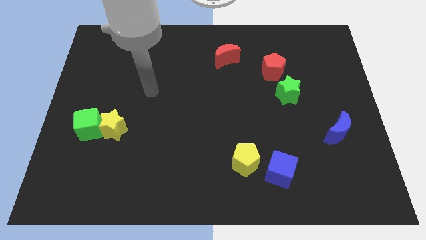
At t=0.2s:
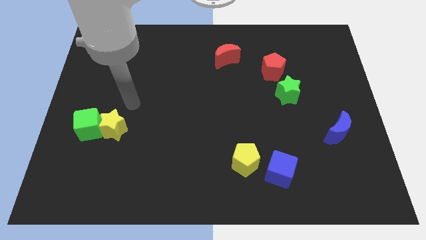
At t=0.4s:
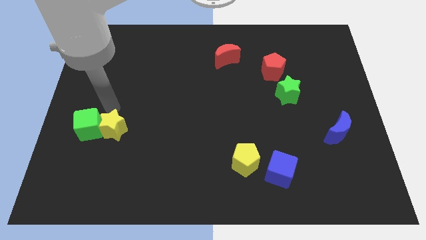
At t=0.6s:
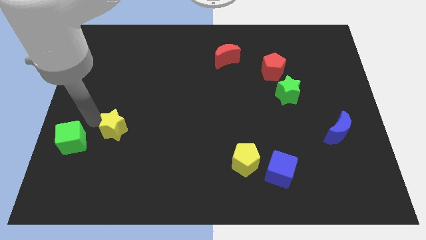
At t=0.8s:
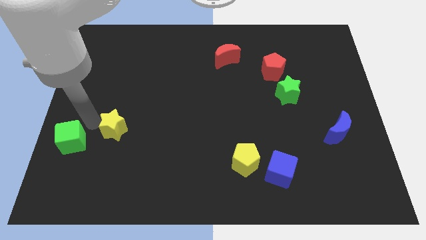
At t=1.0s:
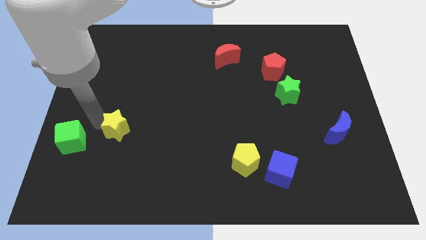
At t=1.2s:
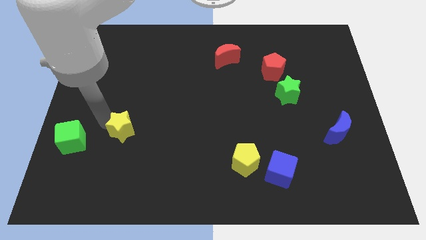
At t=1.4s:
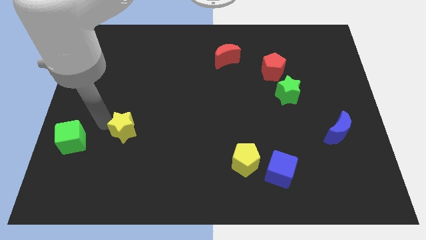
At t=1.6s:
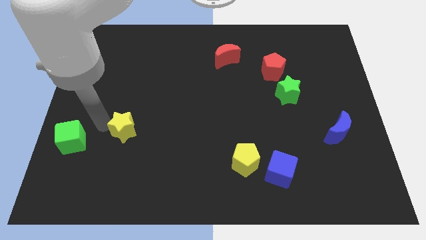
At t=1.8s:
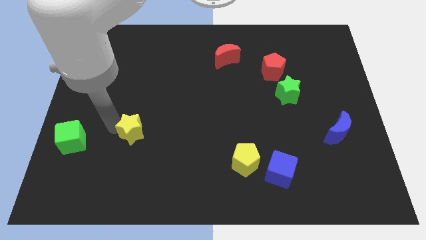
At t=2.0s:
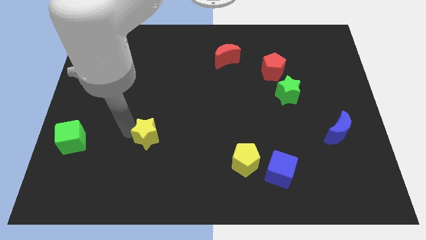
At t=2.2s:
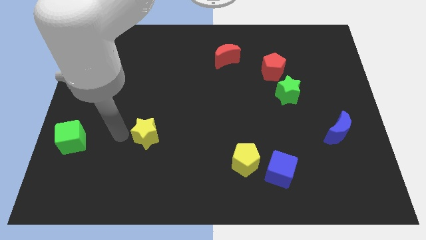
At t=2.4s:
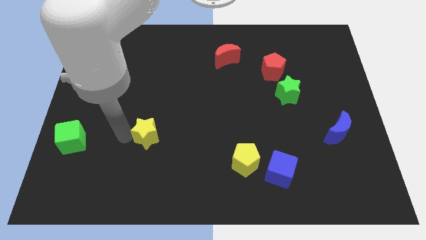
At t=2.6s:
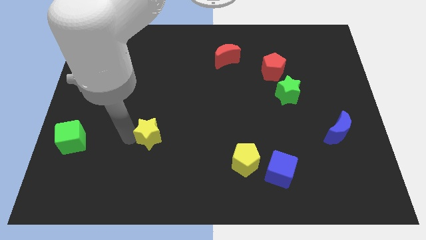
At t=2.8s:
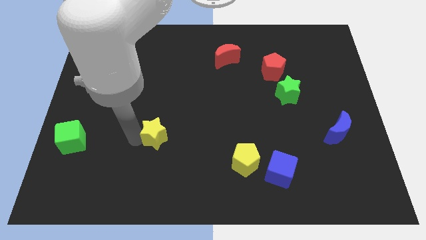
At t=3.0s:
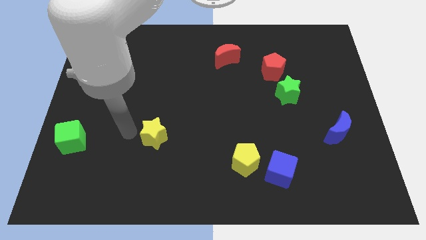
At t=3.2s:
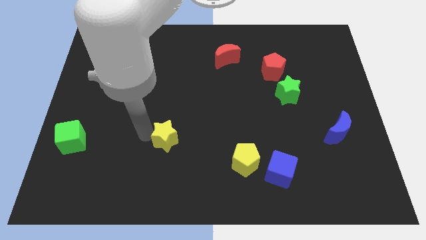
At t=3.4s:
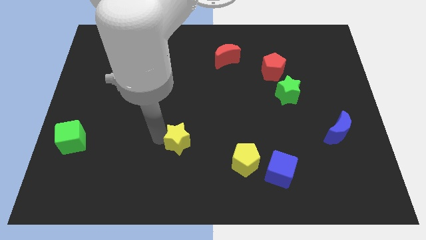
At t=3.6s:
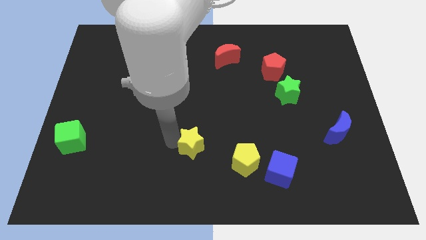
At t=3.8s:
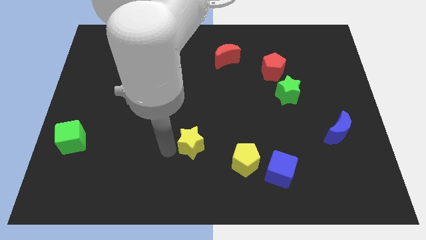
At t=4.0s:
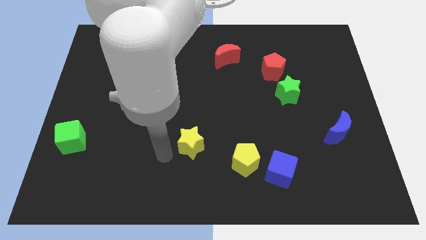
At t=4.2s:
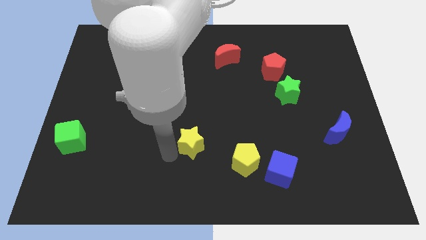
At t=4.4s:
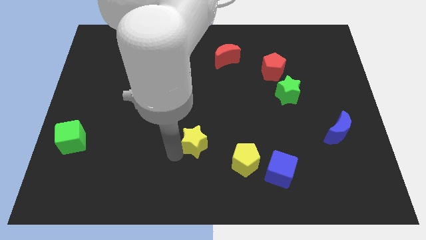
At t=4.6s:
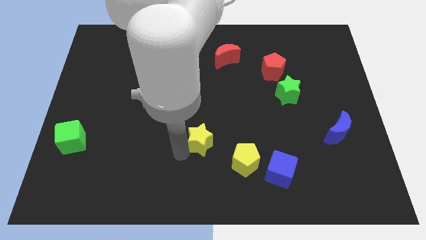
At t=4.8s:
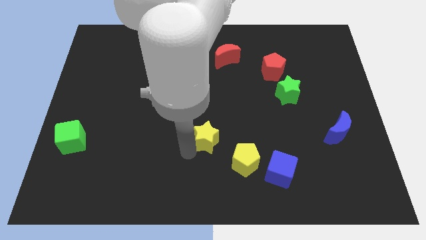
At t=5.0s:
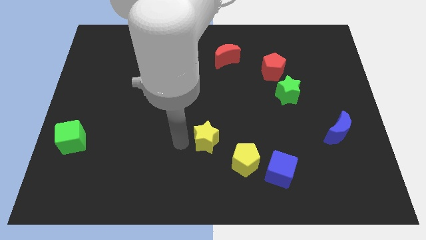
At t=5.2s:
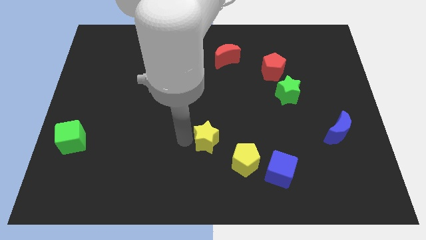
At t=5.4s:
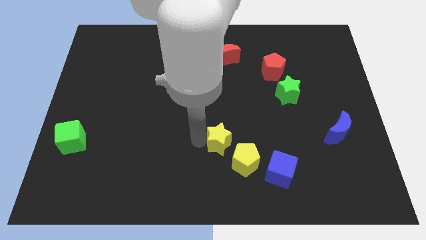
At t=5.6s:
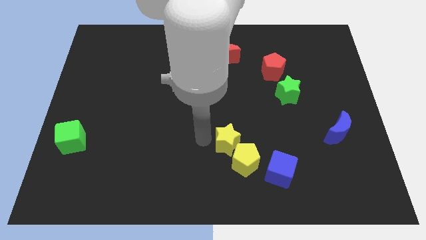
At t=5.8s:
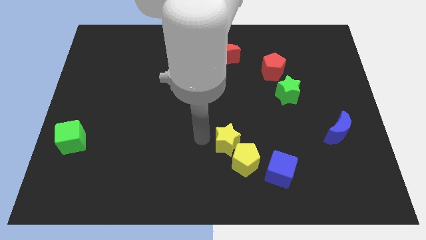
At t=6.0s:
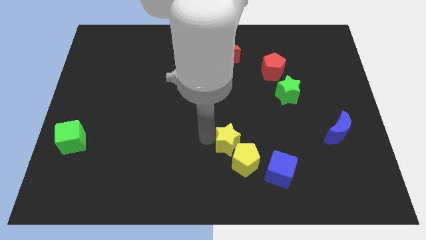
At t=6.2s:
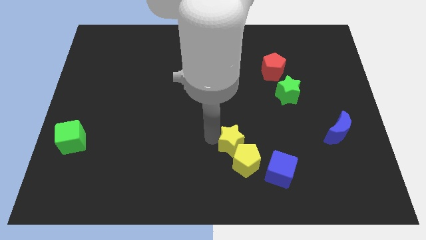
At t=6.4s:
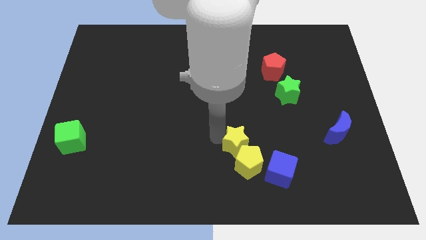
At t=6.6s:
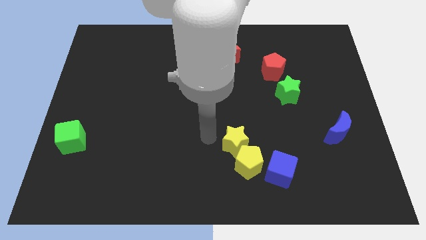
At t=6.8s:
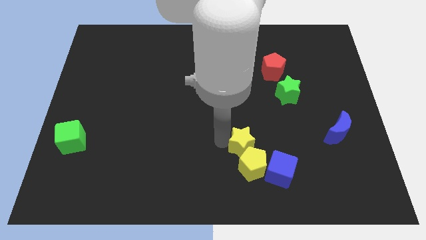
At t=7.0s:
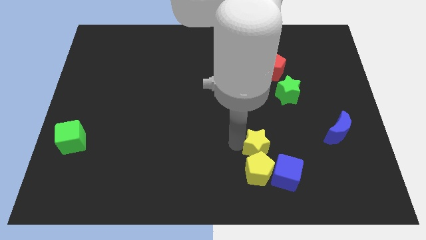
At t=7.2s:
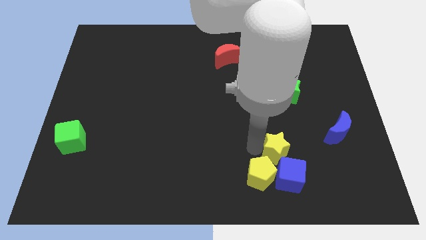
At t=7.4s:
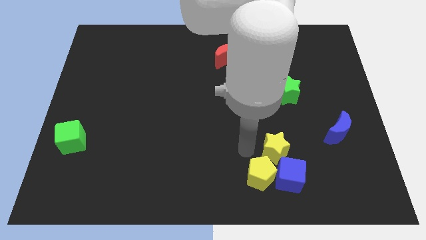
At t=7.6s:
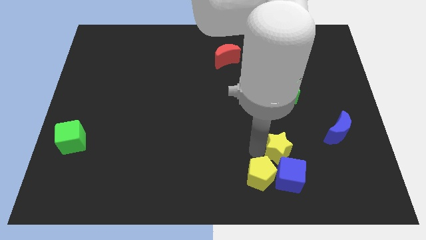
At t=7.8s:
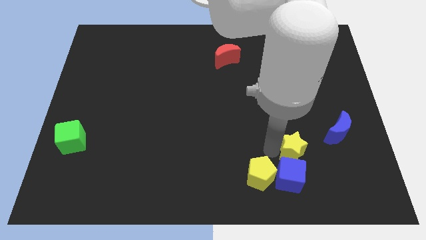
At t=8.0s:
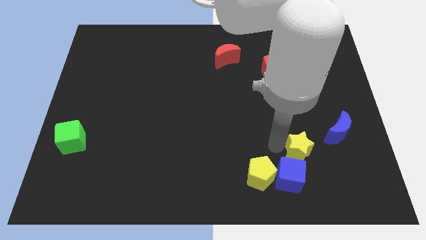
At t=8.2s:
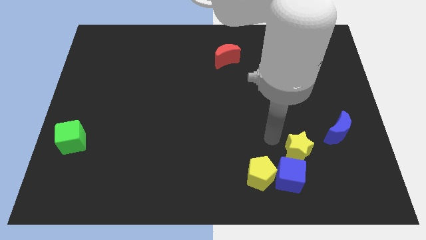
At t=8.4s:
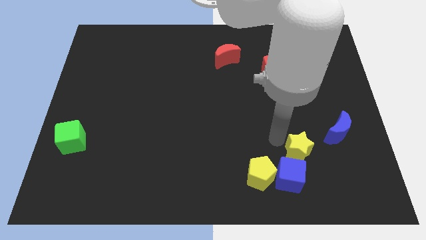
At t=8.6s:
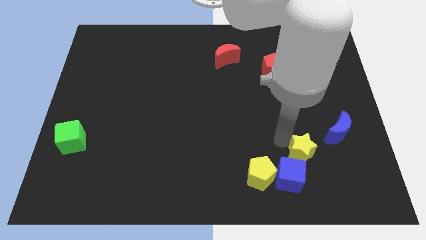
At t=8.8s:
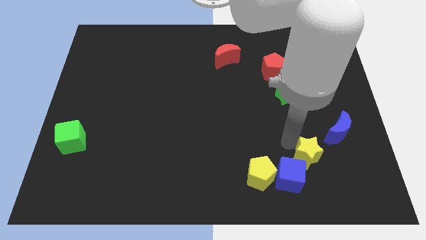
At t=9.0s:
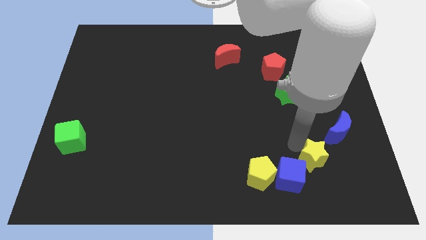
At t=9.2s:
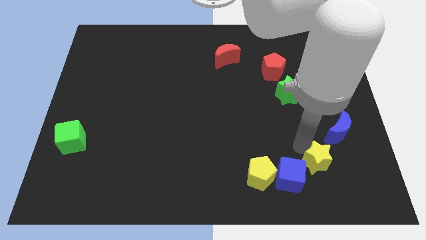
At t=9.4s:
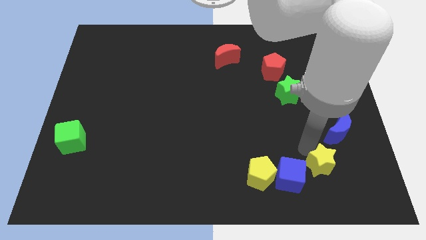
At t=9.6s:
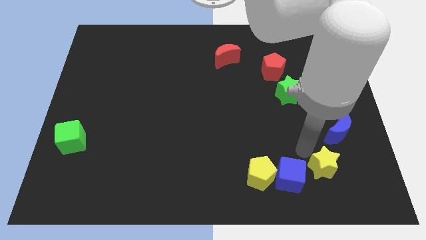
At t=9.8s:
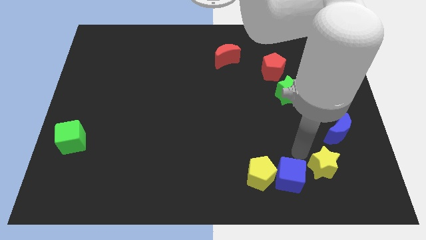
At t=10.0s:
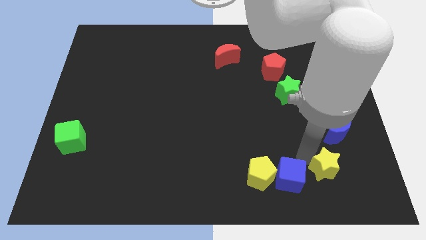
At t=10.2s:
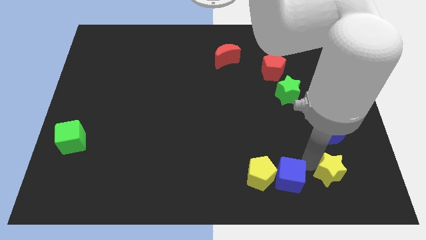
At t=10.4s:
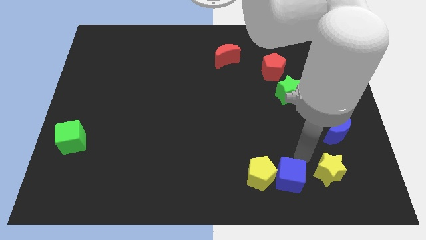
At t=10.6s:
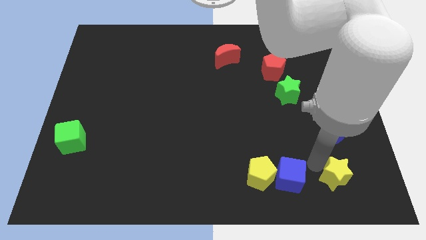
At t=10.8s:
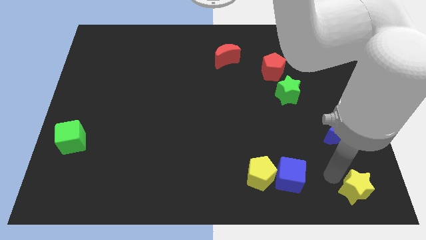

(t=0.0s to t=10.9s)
move the yellow star to the bottom right of the board

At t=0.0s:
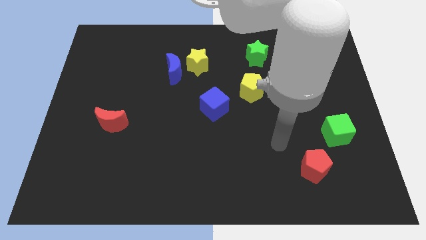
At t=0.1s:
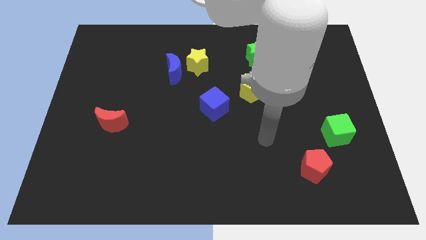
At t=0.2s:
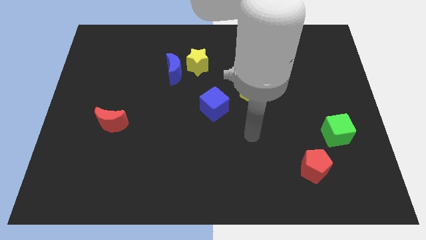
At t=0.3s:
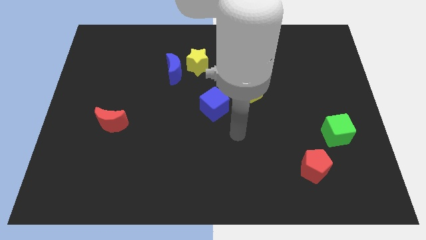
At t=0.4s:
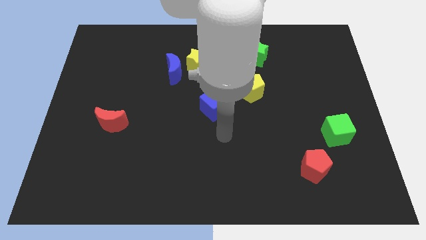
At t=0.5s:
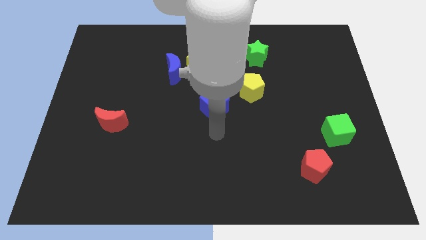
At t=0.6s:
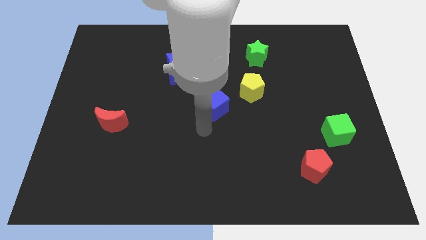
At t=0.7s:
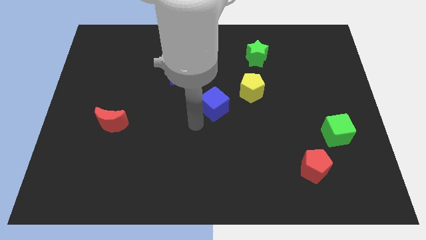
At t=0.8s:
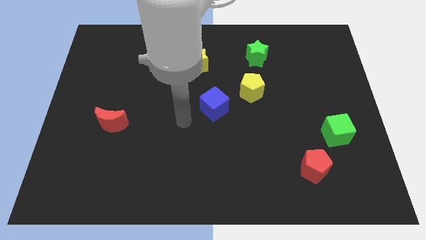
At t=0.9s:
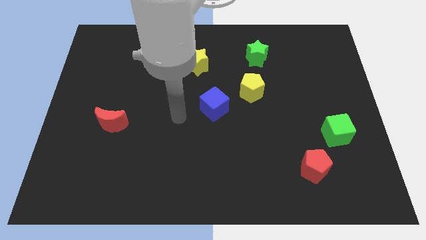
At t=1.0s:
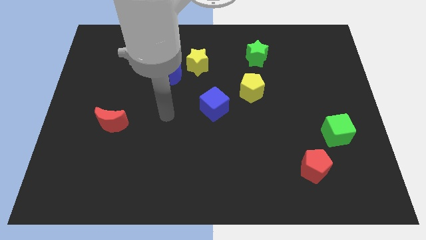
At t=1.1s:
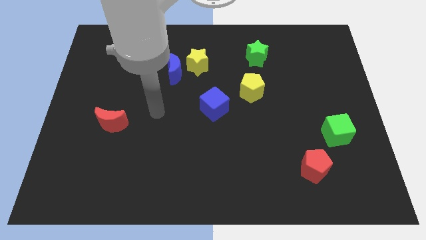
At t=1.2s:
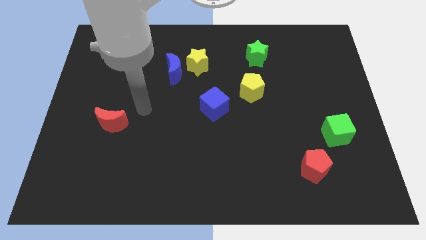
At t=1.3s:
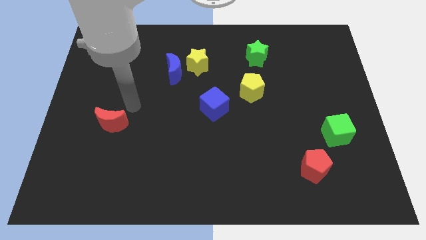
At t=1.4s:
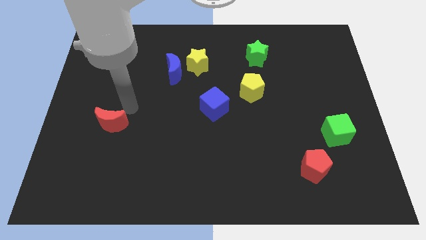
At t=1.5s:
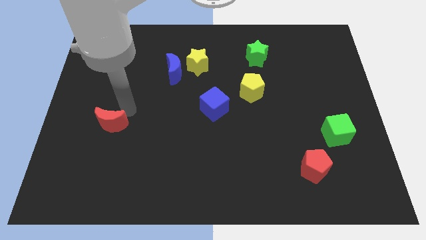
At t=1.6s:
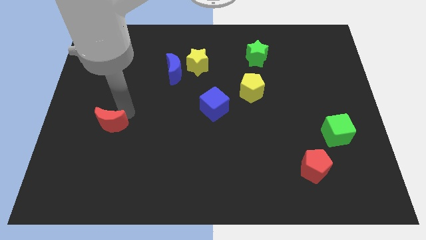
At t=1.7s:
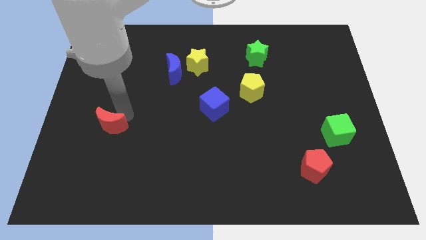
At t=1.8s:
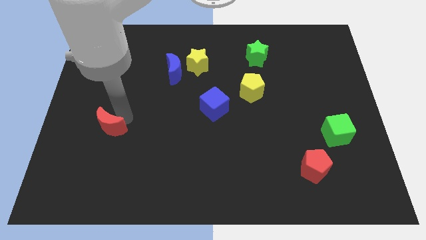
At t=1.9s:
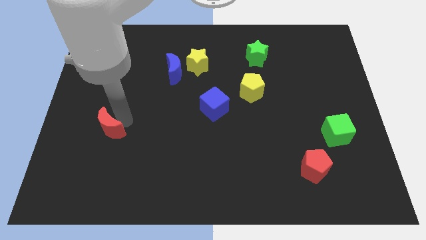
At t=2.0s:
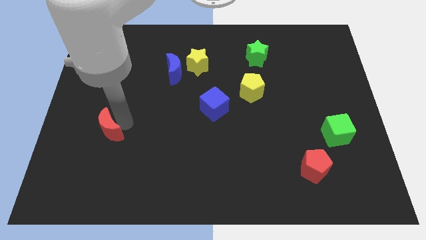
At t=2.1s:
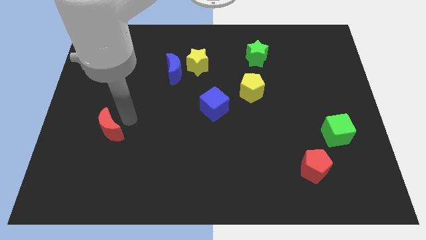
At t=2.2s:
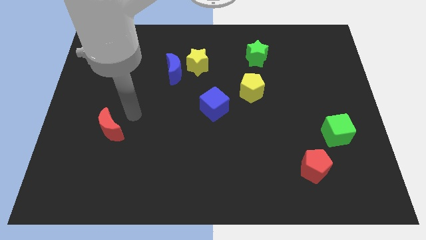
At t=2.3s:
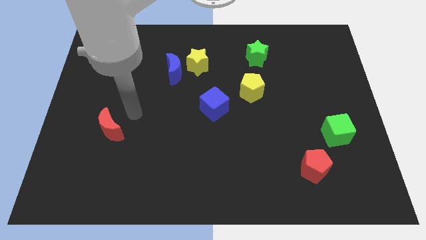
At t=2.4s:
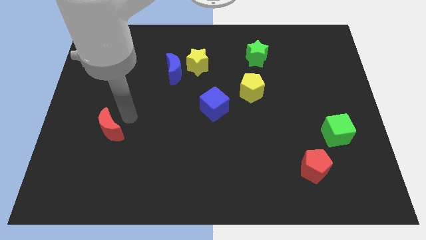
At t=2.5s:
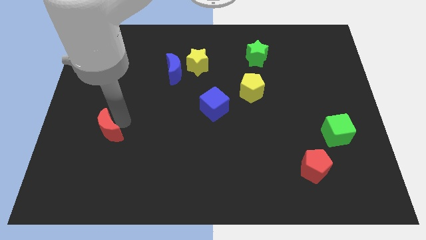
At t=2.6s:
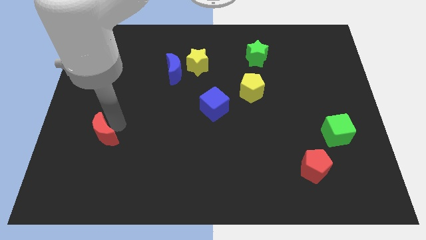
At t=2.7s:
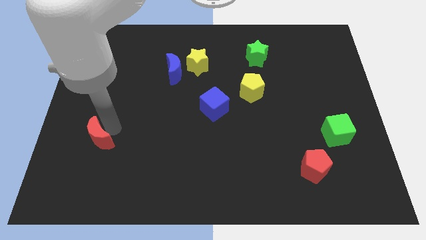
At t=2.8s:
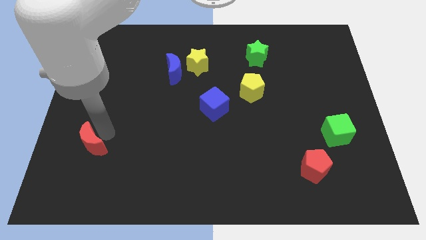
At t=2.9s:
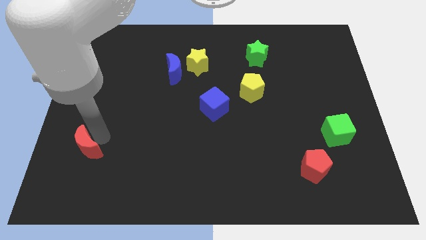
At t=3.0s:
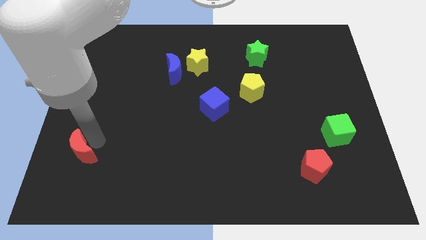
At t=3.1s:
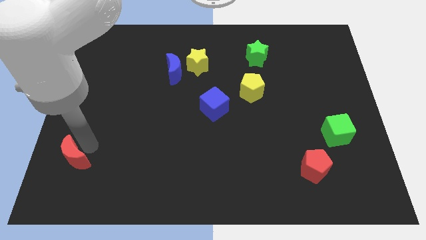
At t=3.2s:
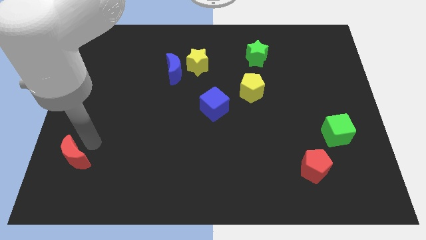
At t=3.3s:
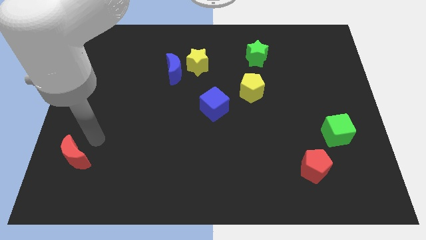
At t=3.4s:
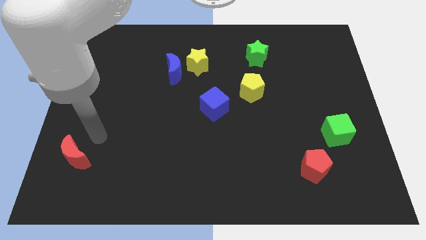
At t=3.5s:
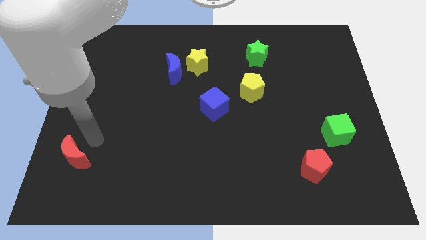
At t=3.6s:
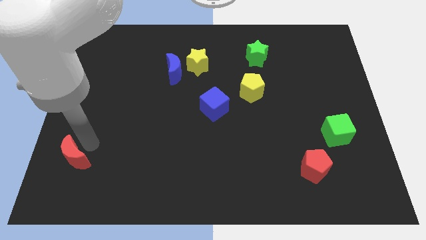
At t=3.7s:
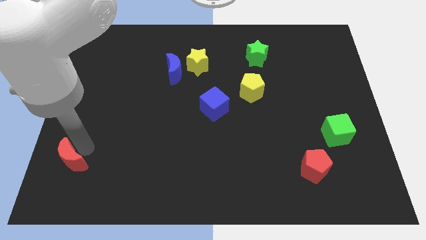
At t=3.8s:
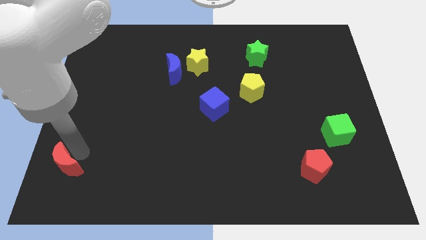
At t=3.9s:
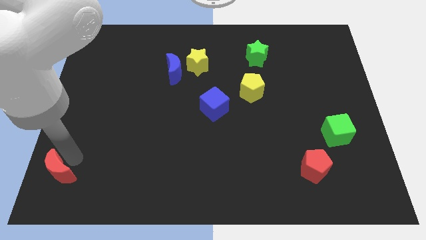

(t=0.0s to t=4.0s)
push the red moon to the bottom left corner
